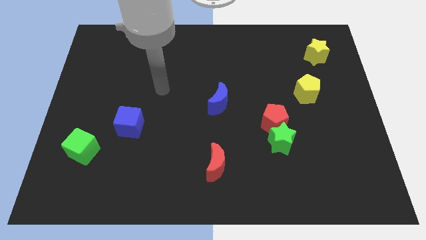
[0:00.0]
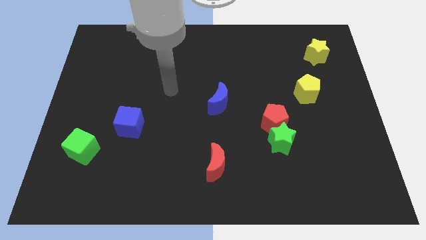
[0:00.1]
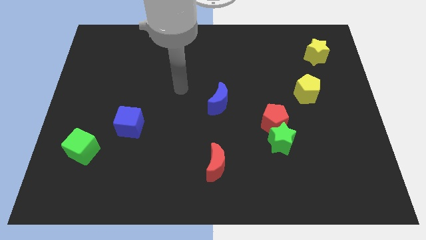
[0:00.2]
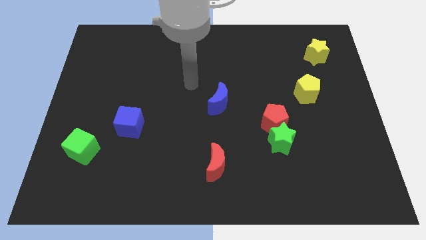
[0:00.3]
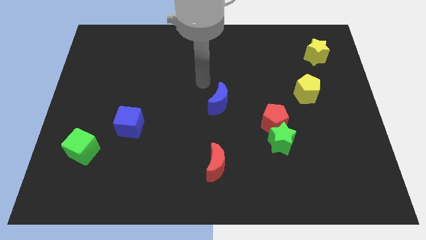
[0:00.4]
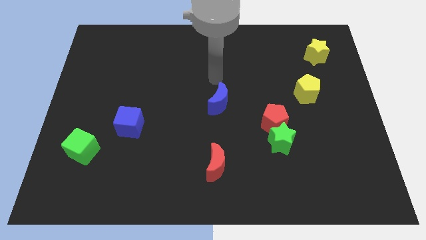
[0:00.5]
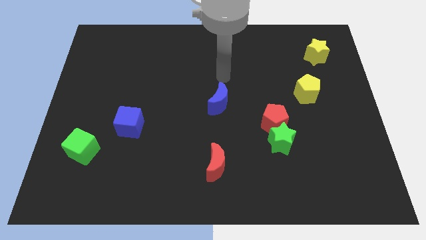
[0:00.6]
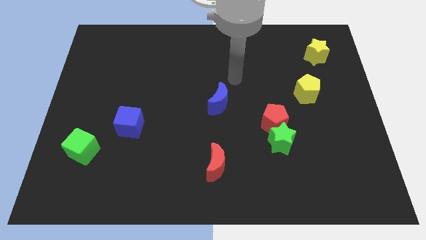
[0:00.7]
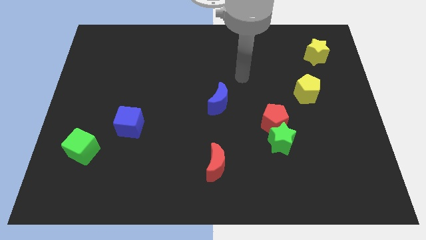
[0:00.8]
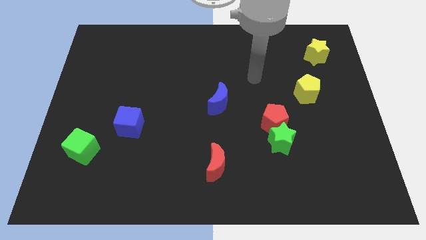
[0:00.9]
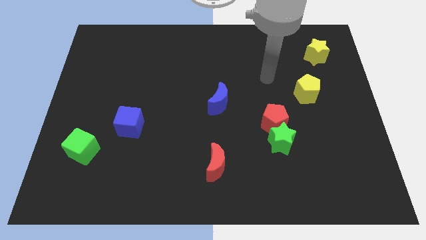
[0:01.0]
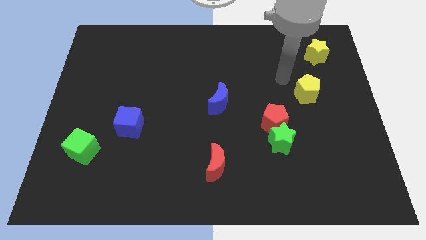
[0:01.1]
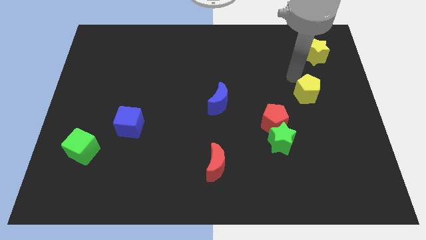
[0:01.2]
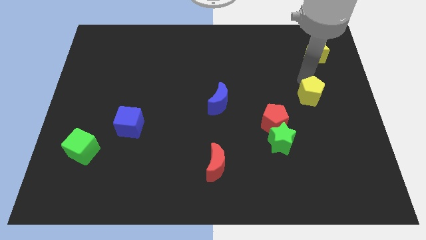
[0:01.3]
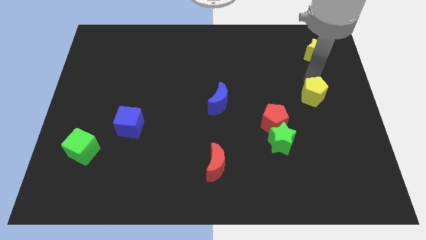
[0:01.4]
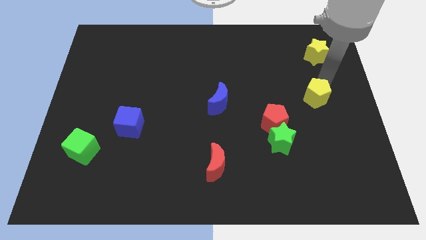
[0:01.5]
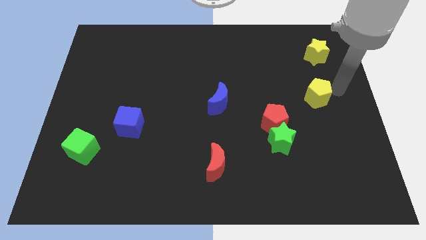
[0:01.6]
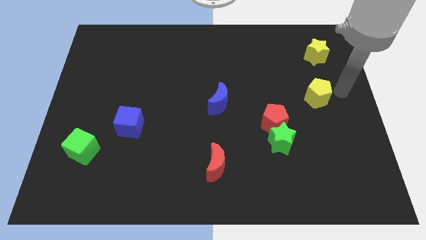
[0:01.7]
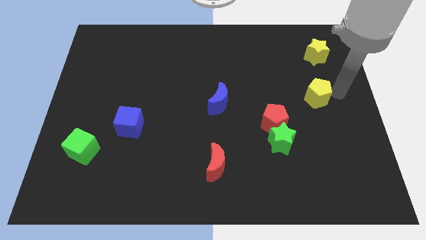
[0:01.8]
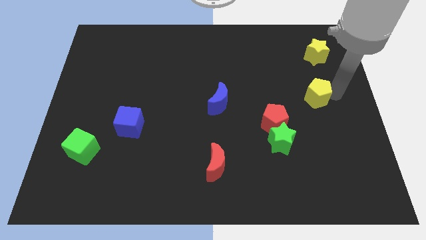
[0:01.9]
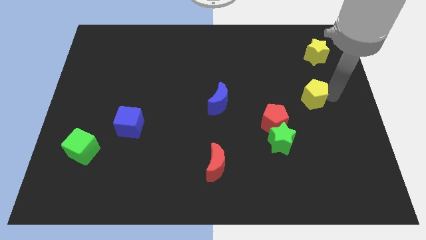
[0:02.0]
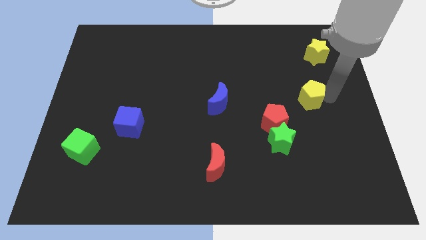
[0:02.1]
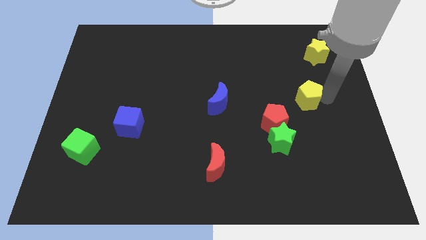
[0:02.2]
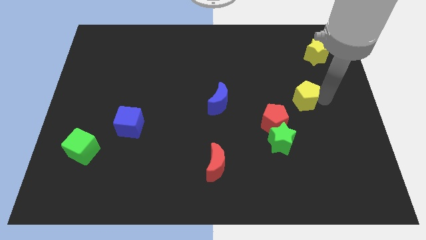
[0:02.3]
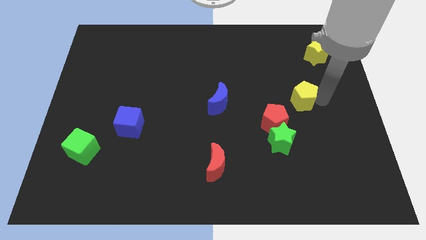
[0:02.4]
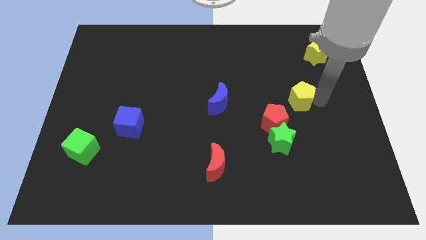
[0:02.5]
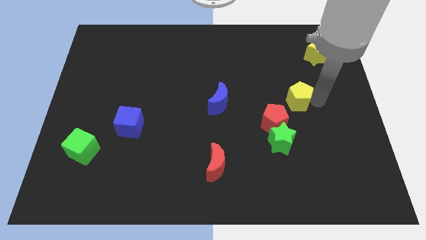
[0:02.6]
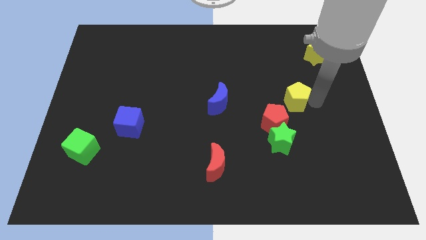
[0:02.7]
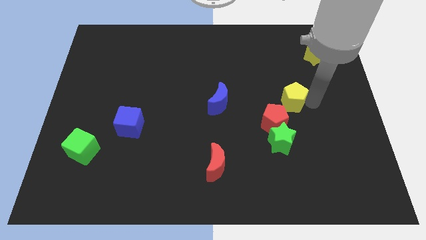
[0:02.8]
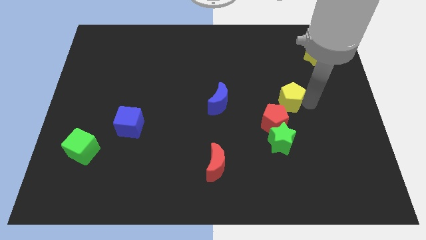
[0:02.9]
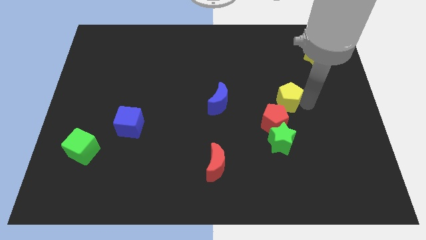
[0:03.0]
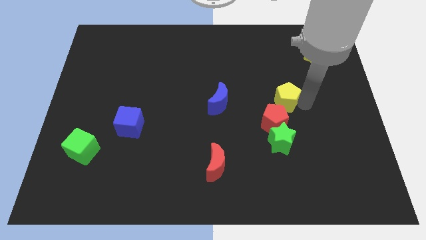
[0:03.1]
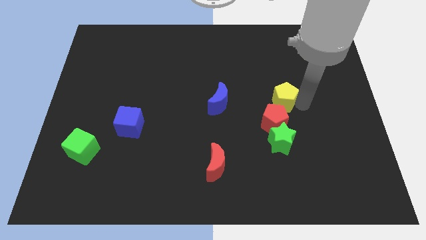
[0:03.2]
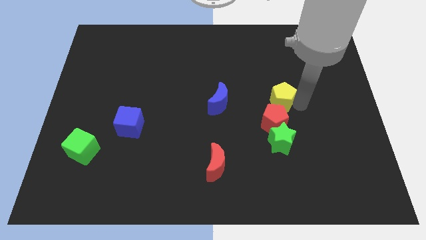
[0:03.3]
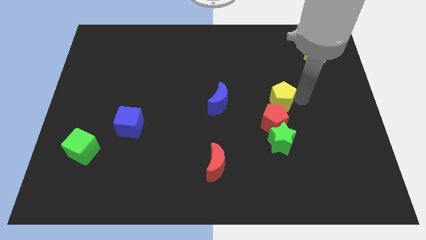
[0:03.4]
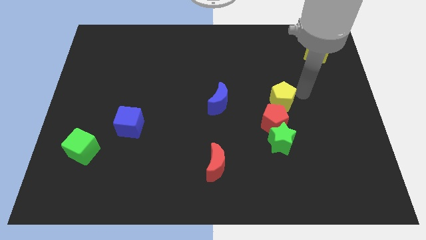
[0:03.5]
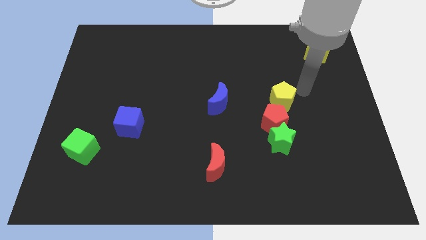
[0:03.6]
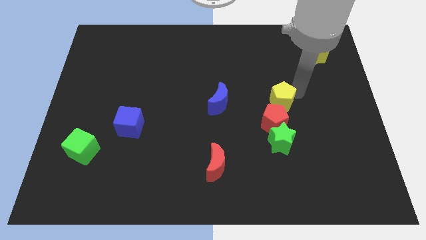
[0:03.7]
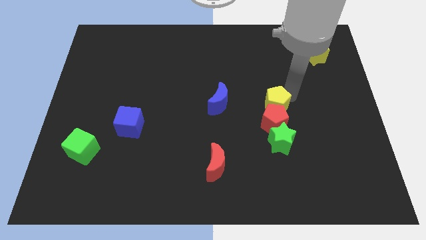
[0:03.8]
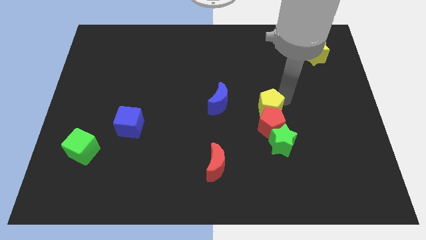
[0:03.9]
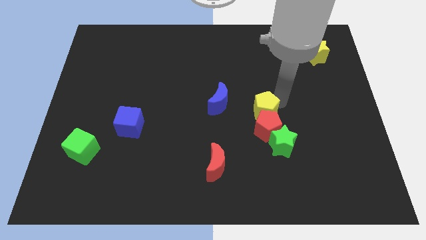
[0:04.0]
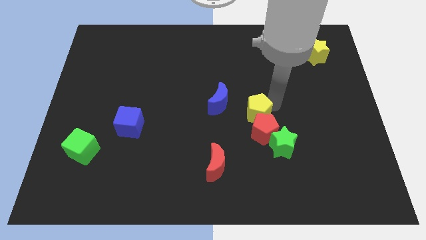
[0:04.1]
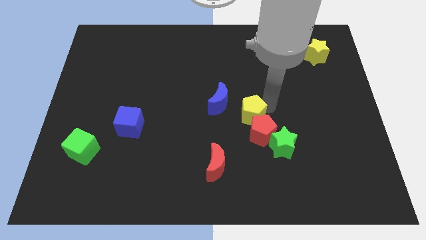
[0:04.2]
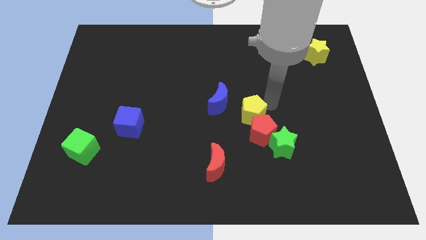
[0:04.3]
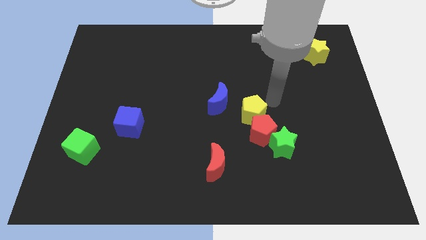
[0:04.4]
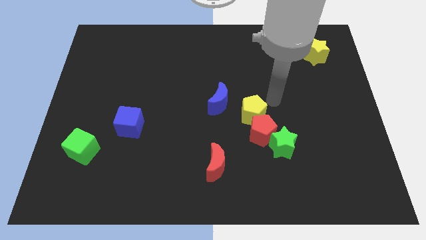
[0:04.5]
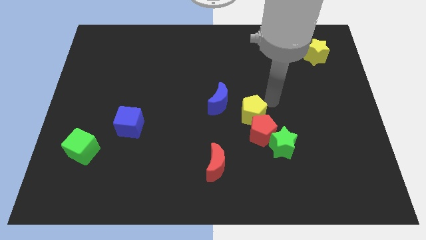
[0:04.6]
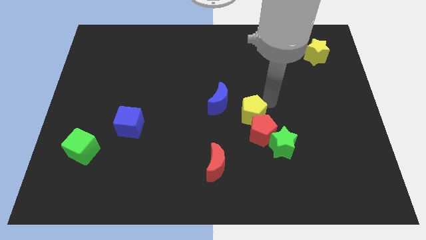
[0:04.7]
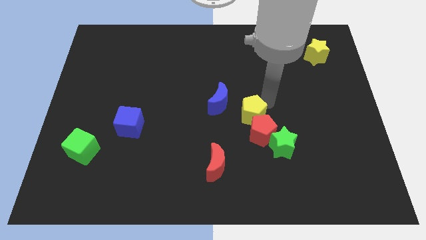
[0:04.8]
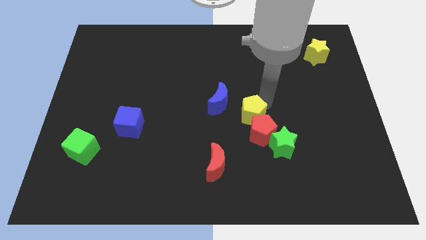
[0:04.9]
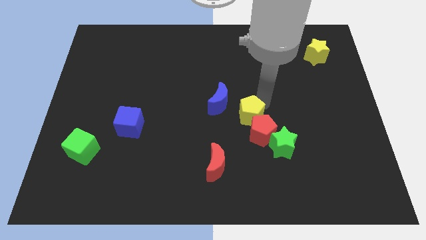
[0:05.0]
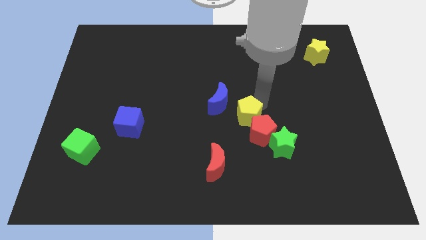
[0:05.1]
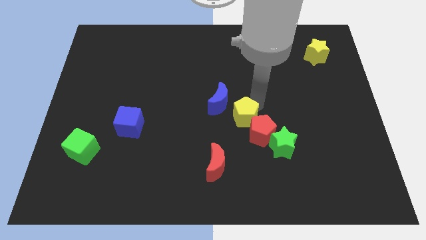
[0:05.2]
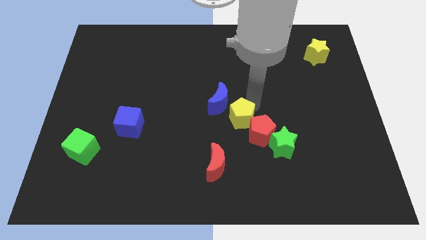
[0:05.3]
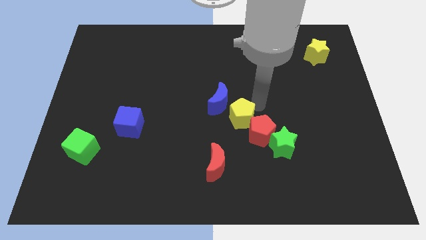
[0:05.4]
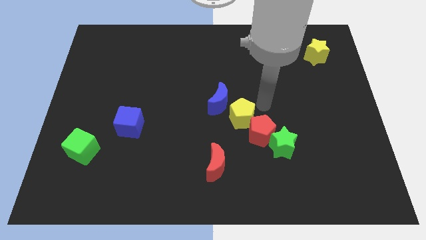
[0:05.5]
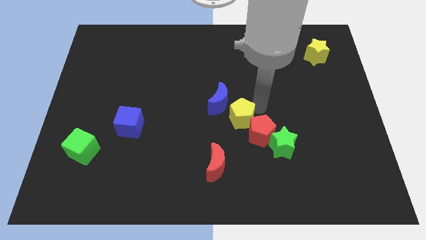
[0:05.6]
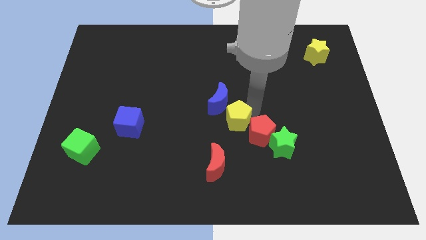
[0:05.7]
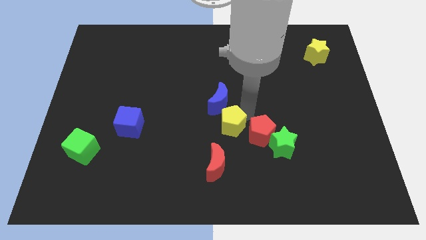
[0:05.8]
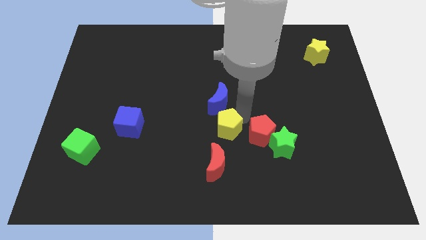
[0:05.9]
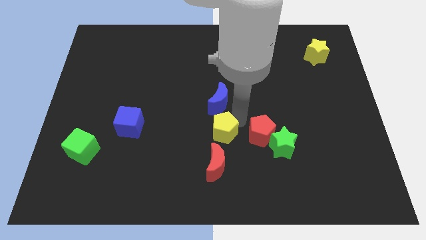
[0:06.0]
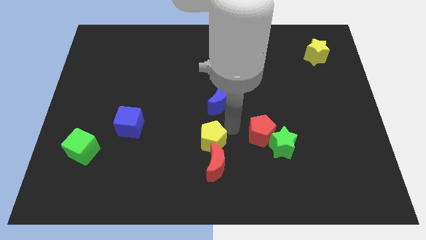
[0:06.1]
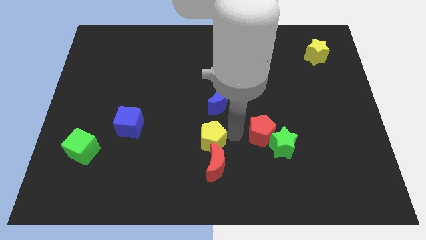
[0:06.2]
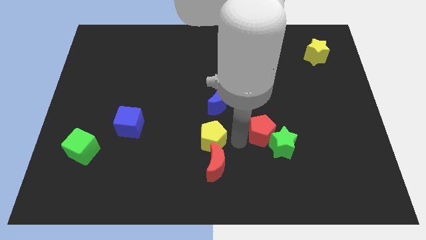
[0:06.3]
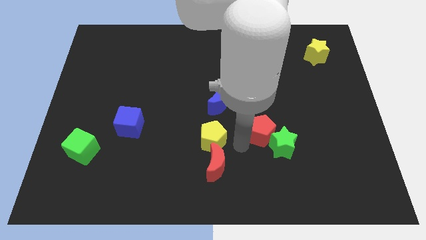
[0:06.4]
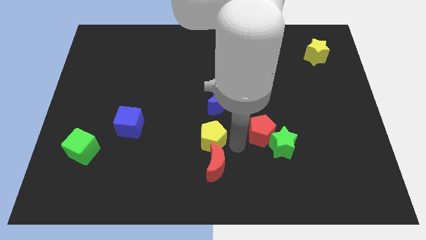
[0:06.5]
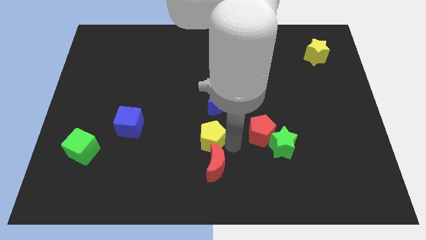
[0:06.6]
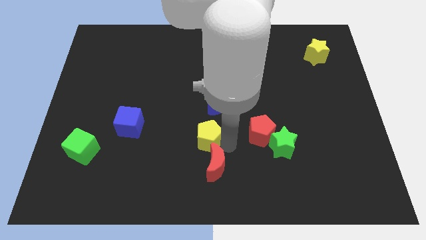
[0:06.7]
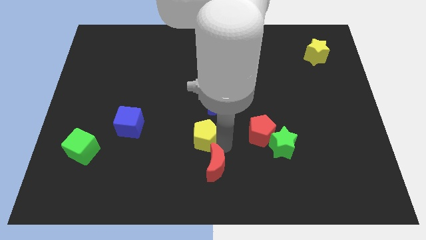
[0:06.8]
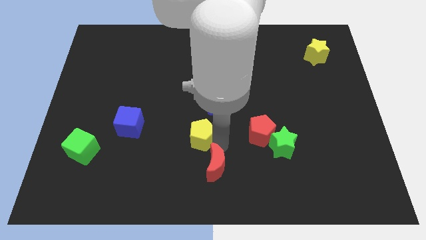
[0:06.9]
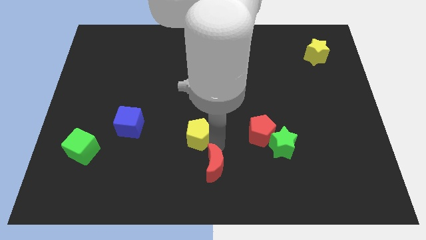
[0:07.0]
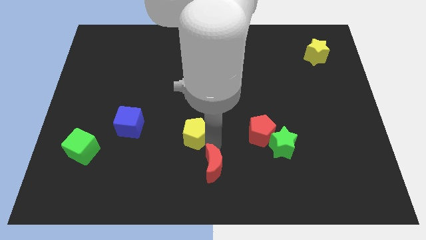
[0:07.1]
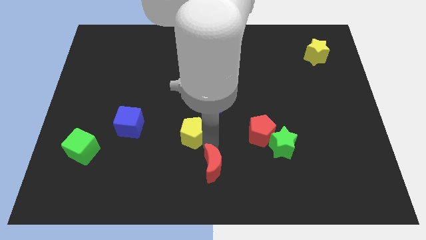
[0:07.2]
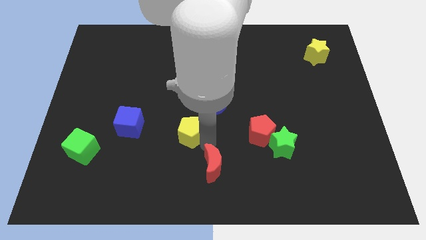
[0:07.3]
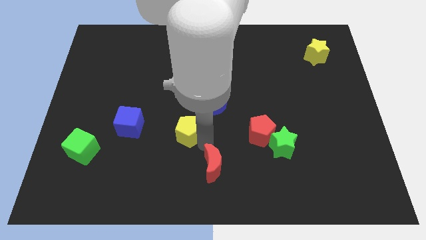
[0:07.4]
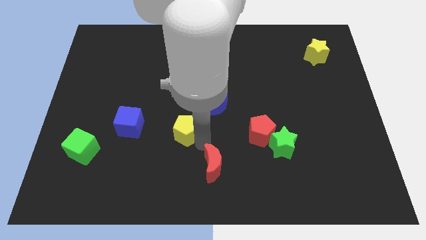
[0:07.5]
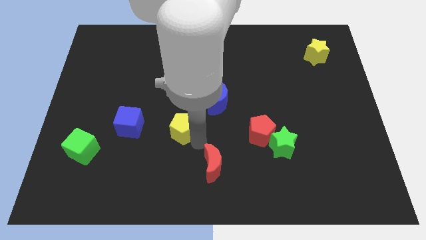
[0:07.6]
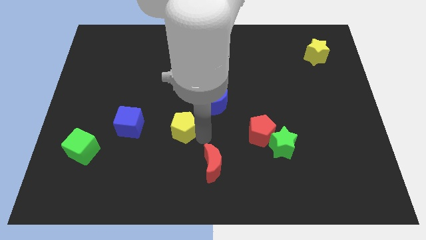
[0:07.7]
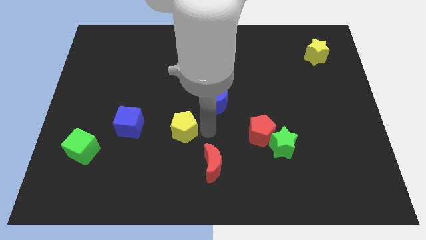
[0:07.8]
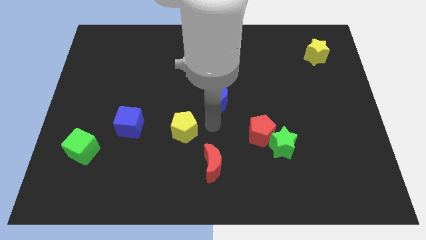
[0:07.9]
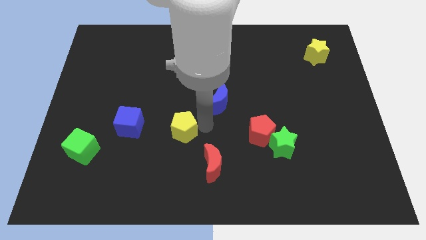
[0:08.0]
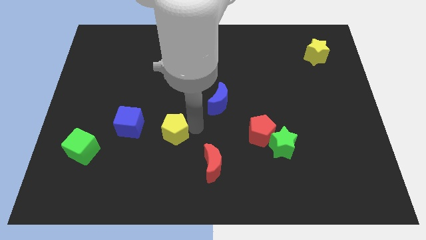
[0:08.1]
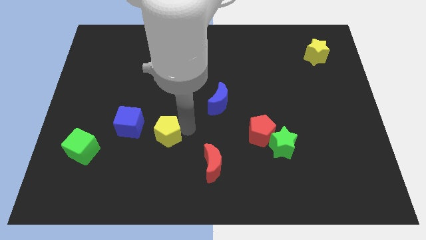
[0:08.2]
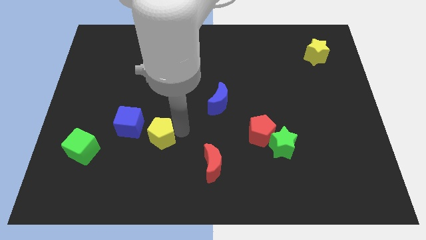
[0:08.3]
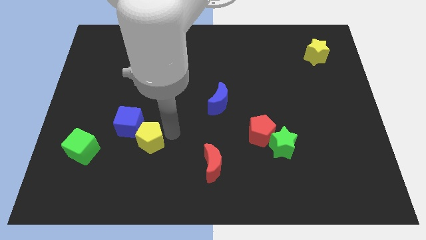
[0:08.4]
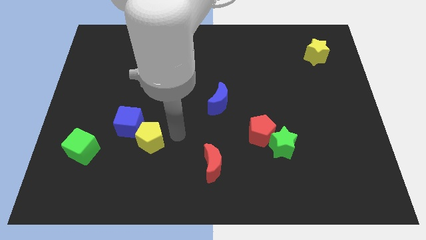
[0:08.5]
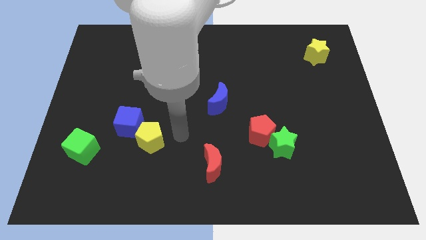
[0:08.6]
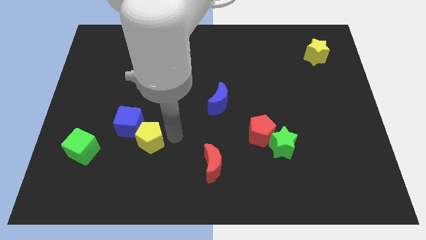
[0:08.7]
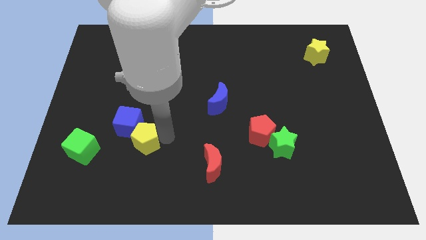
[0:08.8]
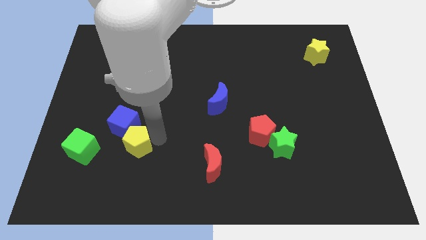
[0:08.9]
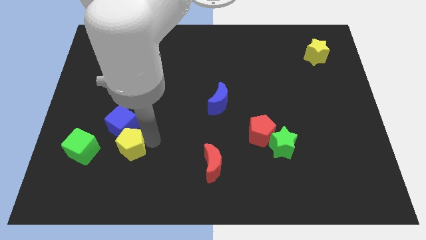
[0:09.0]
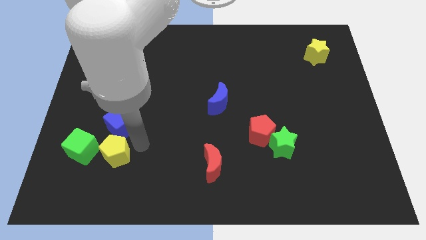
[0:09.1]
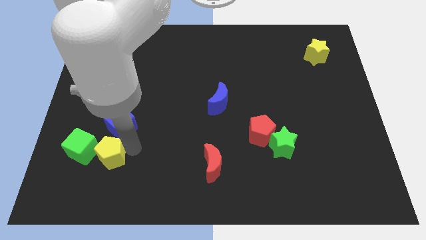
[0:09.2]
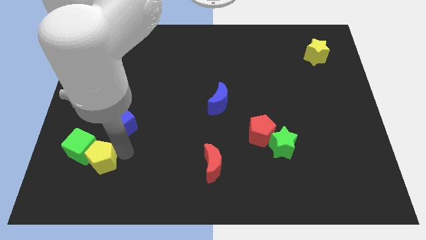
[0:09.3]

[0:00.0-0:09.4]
put the yellow pentagon to the green cube
